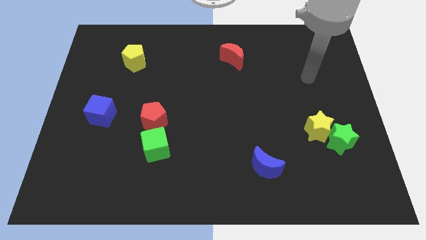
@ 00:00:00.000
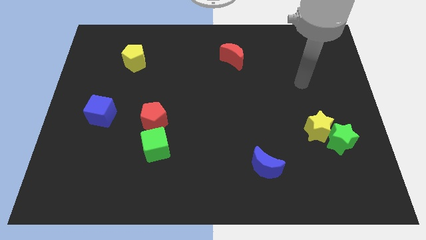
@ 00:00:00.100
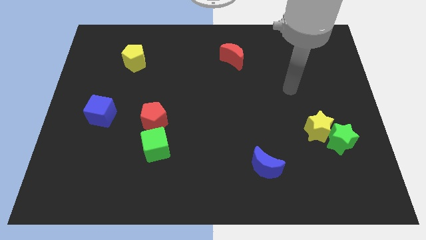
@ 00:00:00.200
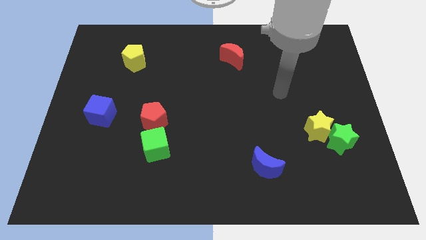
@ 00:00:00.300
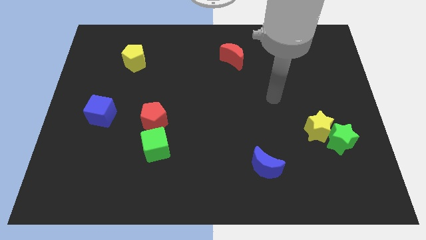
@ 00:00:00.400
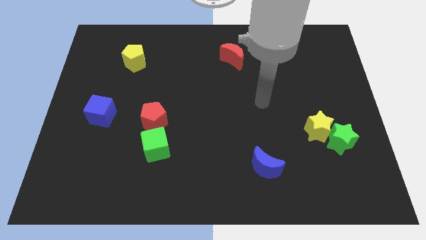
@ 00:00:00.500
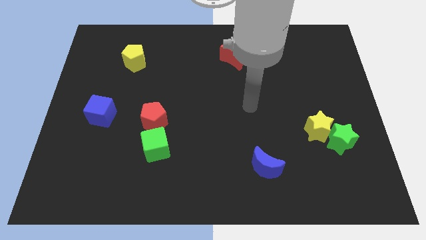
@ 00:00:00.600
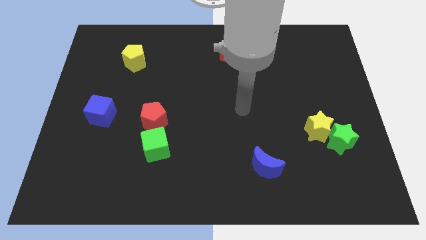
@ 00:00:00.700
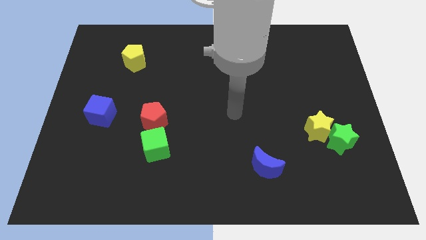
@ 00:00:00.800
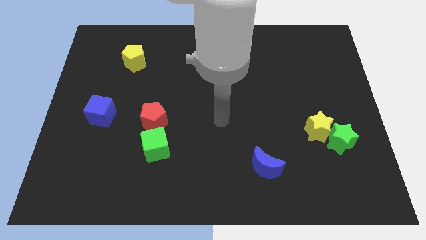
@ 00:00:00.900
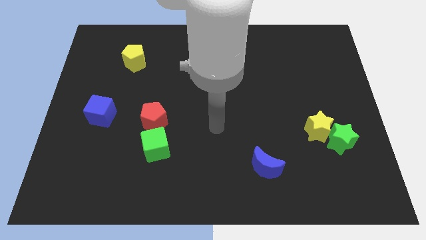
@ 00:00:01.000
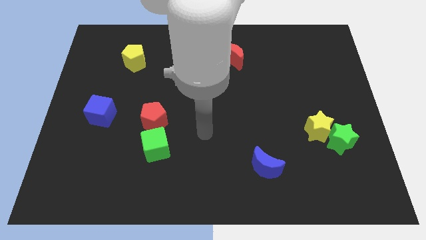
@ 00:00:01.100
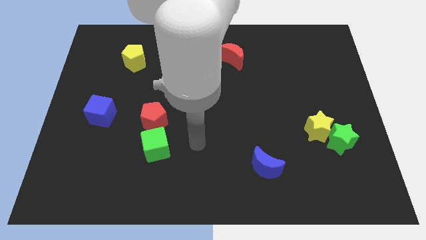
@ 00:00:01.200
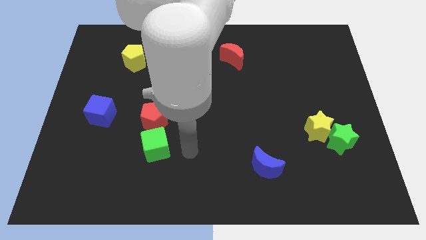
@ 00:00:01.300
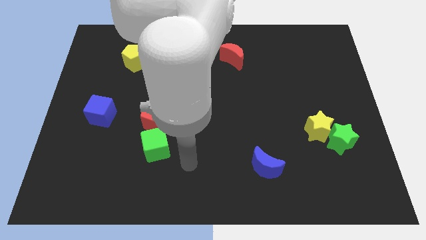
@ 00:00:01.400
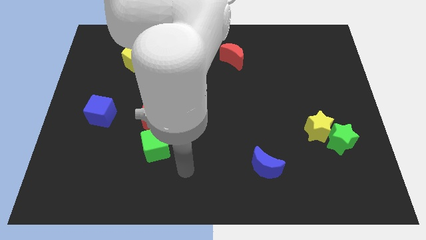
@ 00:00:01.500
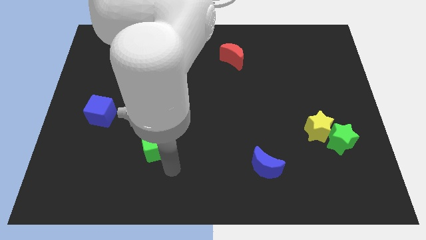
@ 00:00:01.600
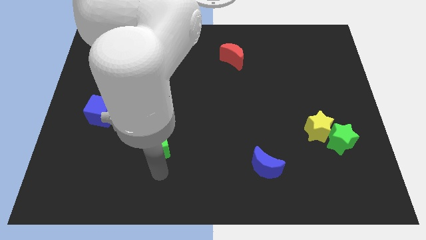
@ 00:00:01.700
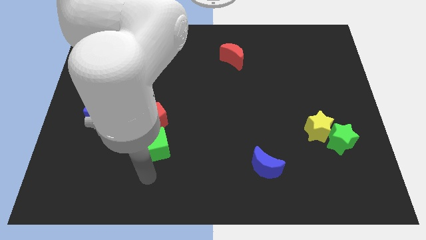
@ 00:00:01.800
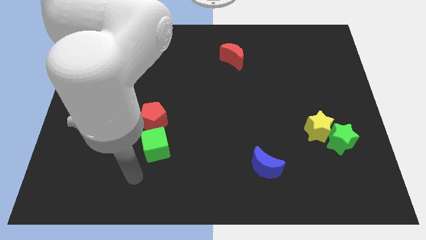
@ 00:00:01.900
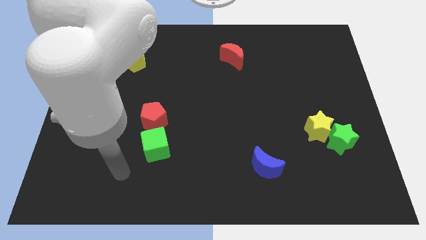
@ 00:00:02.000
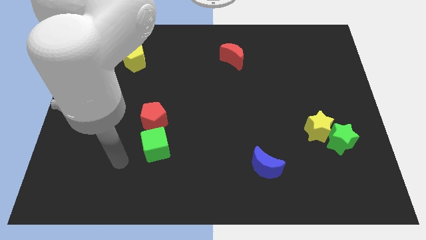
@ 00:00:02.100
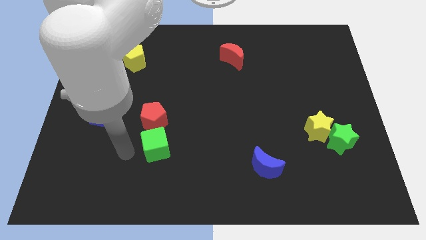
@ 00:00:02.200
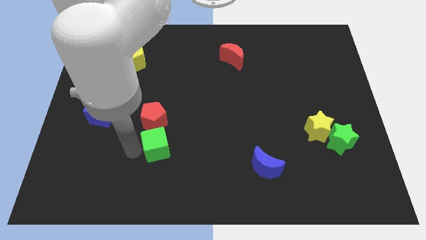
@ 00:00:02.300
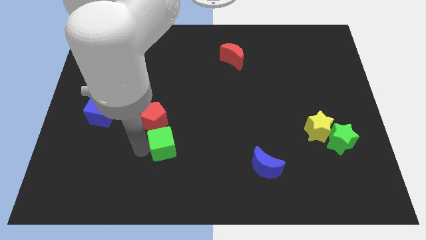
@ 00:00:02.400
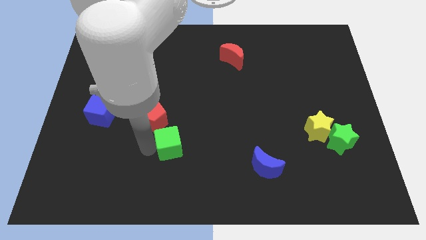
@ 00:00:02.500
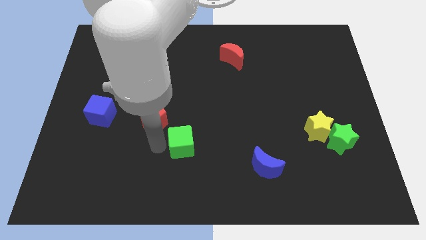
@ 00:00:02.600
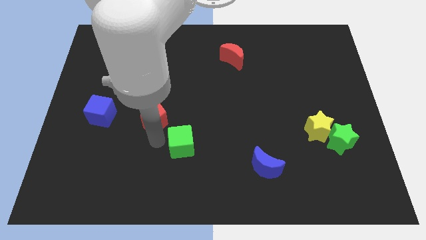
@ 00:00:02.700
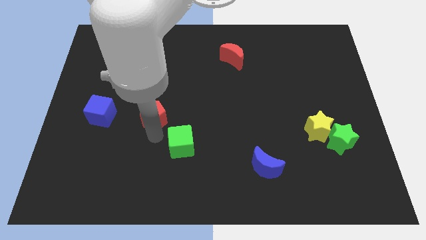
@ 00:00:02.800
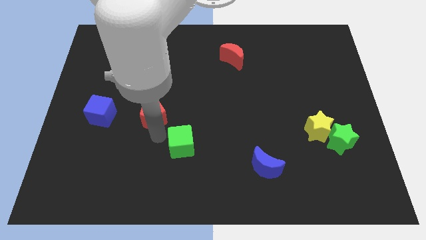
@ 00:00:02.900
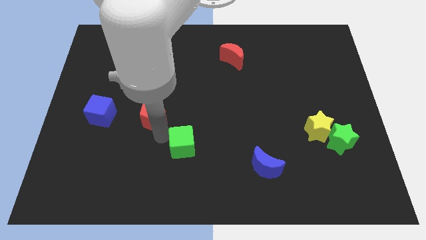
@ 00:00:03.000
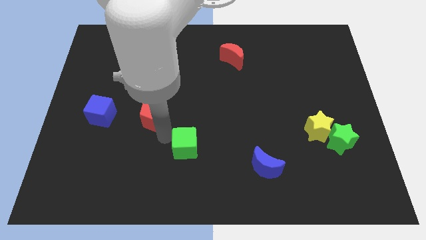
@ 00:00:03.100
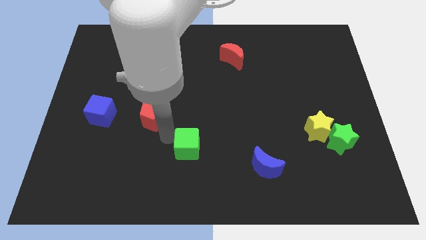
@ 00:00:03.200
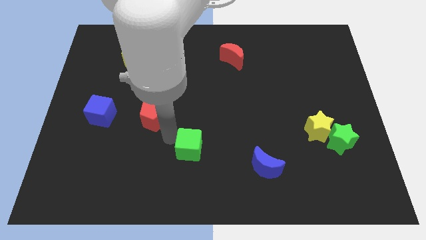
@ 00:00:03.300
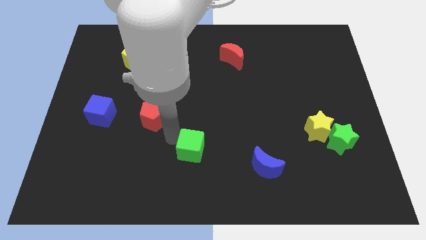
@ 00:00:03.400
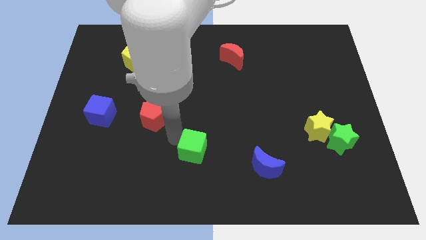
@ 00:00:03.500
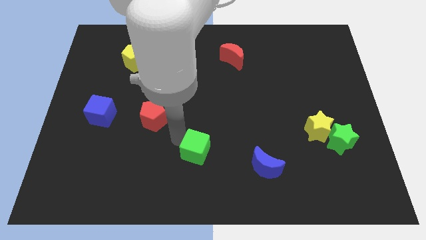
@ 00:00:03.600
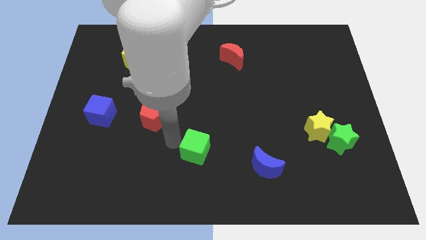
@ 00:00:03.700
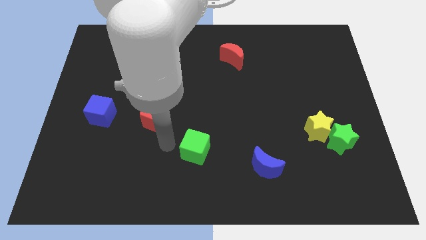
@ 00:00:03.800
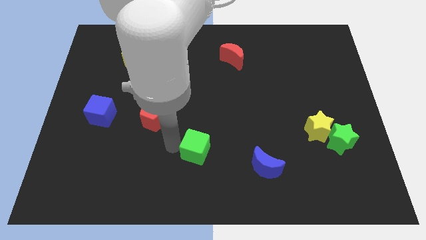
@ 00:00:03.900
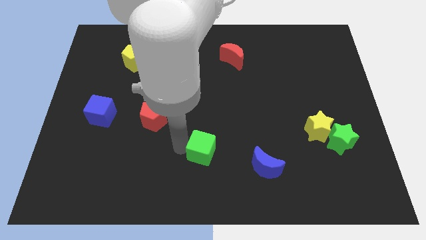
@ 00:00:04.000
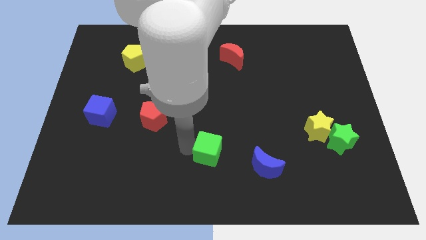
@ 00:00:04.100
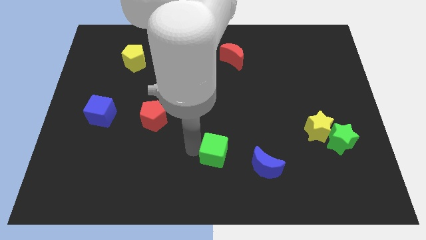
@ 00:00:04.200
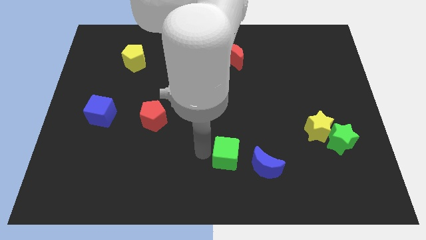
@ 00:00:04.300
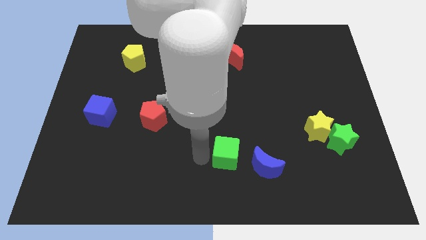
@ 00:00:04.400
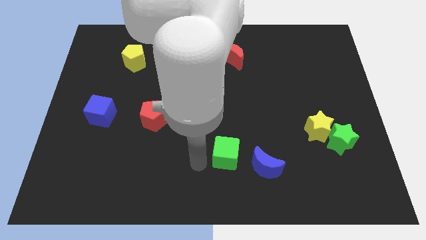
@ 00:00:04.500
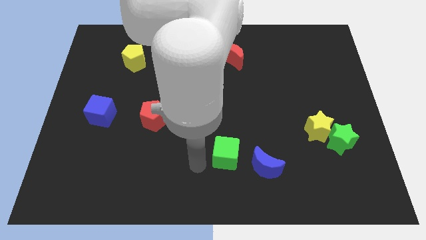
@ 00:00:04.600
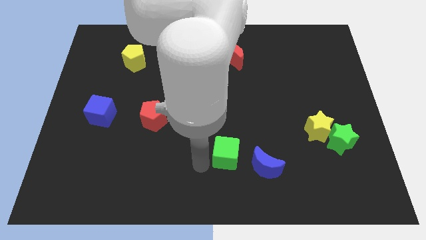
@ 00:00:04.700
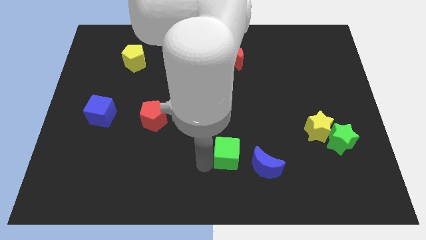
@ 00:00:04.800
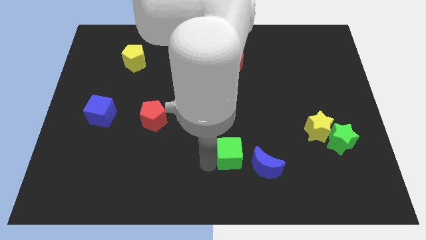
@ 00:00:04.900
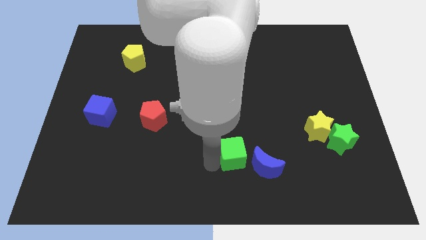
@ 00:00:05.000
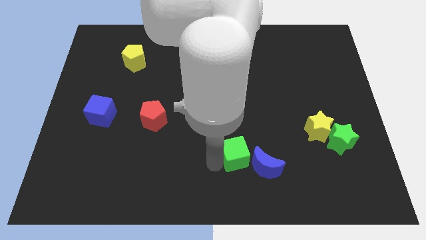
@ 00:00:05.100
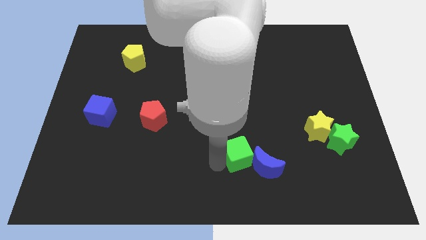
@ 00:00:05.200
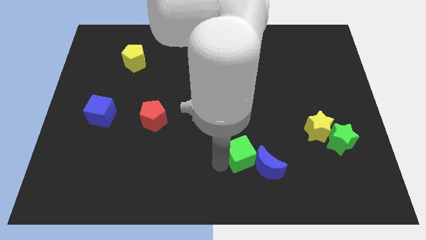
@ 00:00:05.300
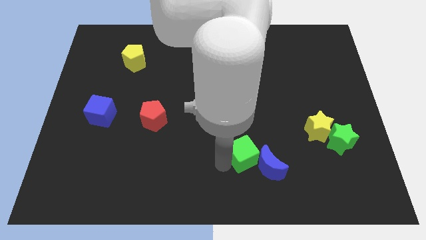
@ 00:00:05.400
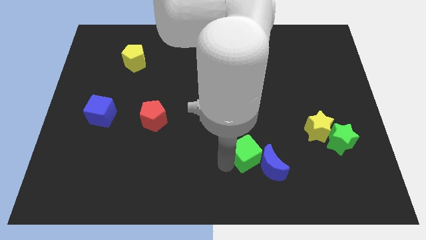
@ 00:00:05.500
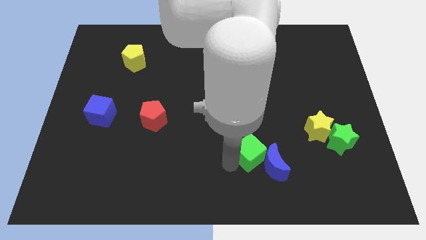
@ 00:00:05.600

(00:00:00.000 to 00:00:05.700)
move the green cube right

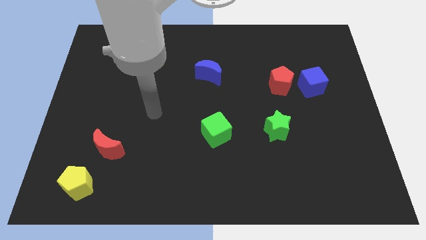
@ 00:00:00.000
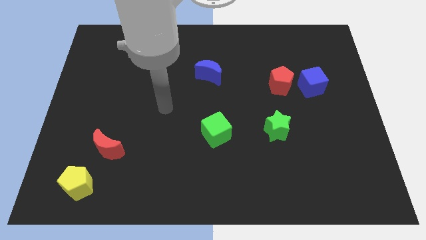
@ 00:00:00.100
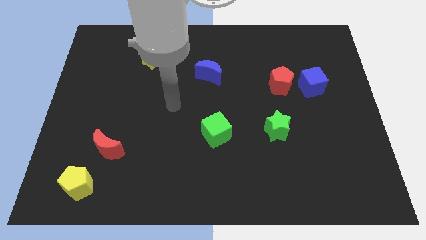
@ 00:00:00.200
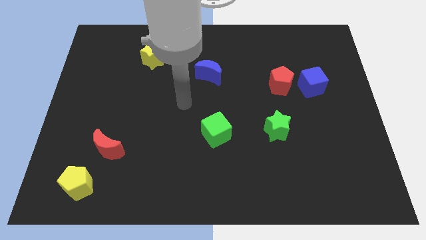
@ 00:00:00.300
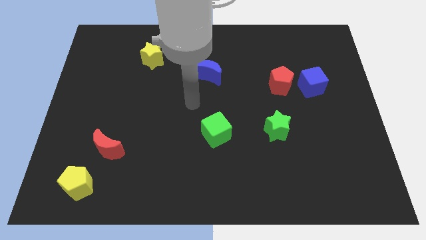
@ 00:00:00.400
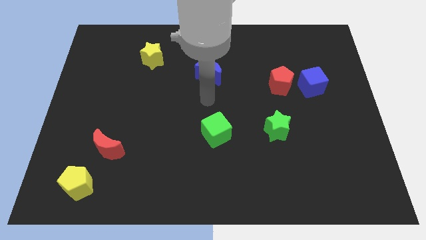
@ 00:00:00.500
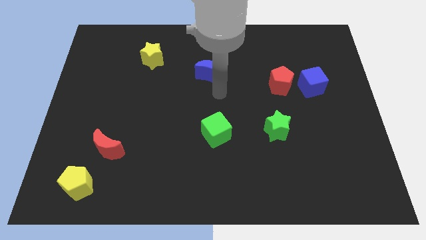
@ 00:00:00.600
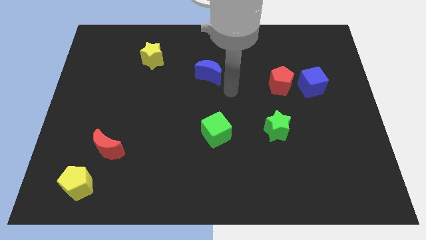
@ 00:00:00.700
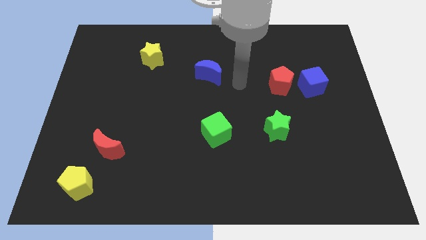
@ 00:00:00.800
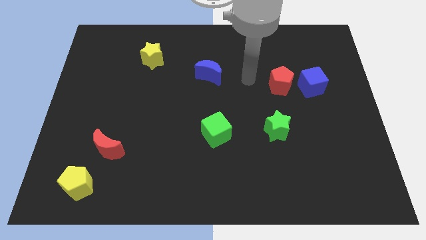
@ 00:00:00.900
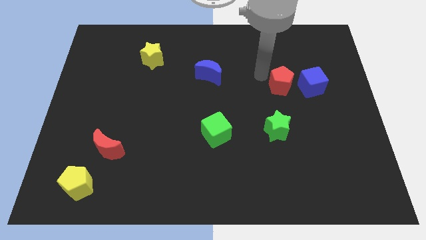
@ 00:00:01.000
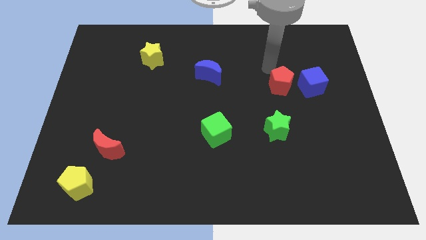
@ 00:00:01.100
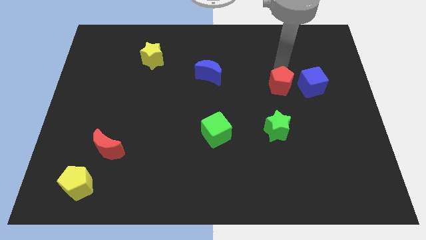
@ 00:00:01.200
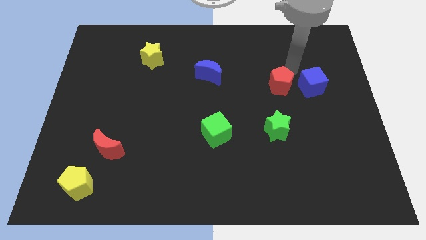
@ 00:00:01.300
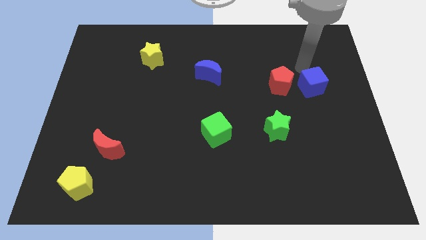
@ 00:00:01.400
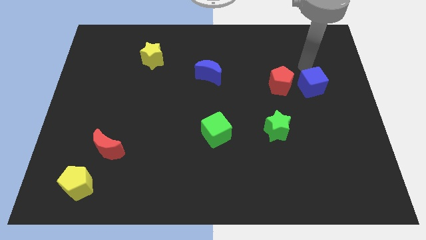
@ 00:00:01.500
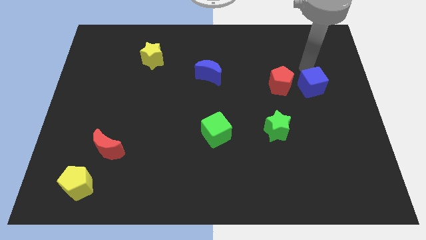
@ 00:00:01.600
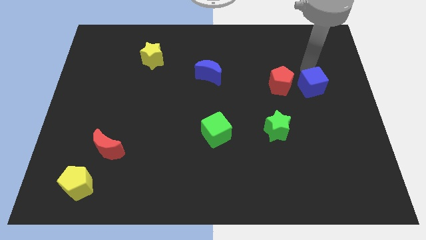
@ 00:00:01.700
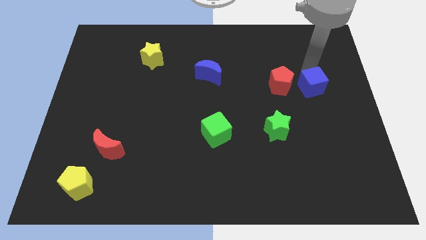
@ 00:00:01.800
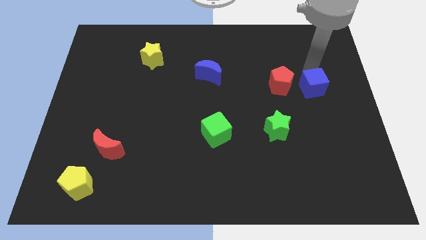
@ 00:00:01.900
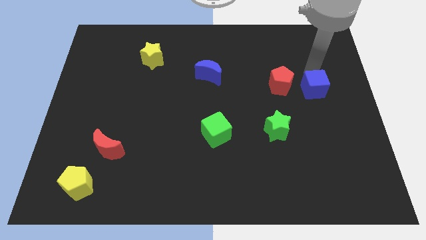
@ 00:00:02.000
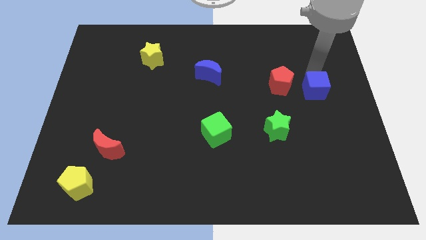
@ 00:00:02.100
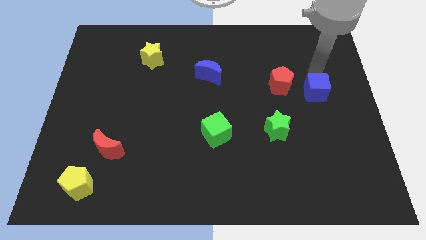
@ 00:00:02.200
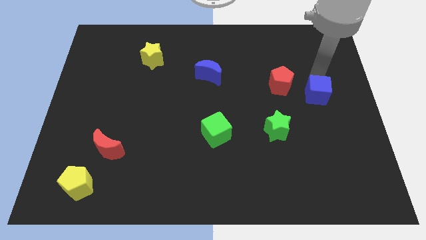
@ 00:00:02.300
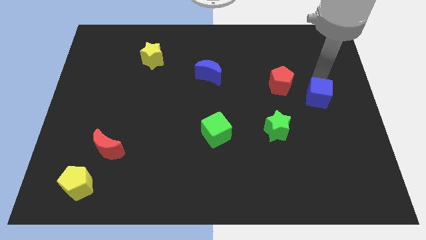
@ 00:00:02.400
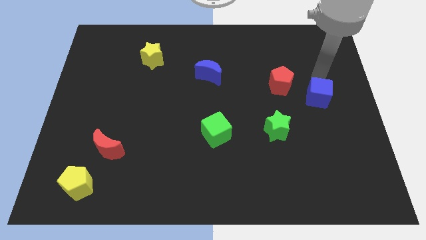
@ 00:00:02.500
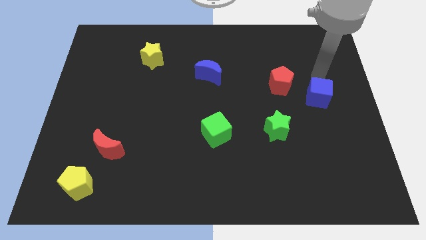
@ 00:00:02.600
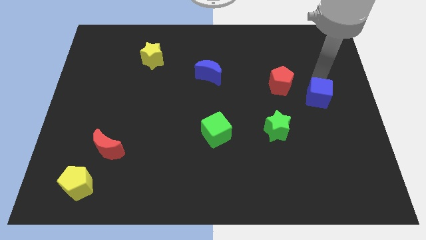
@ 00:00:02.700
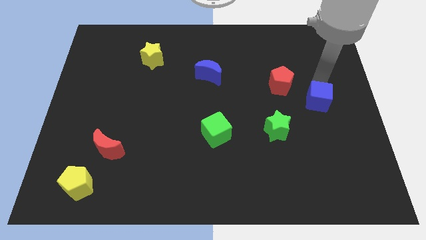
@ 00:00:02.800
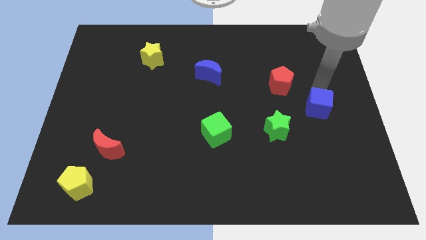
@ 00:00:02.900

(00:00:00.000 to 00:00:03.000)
slide the blue cube a little bit down
